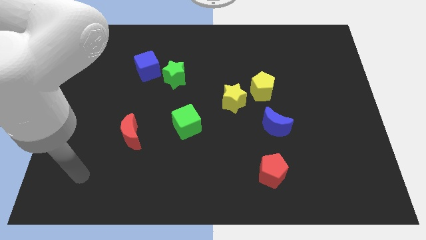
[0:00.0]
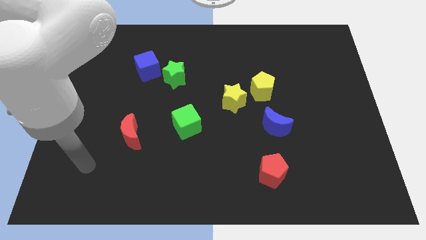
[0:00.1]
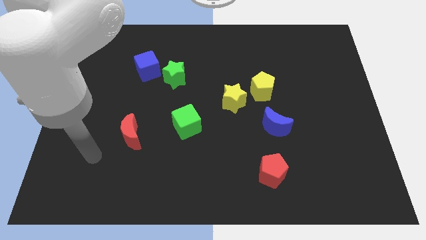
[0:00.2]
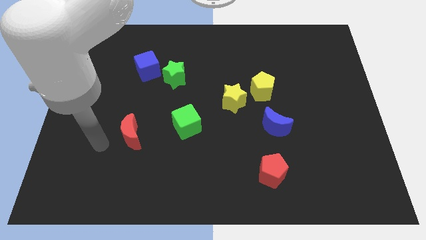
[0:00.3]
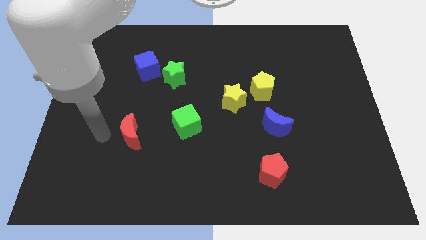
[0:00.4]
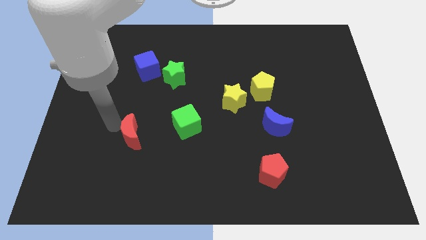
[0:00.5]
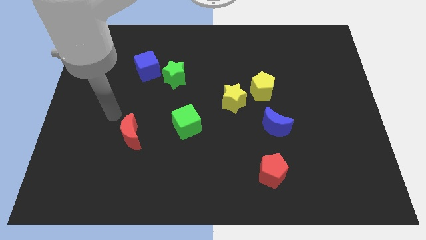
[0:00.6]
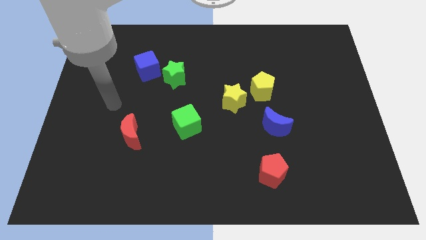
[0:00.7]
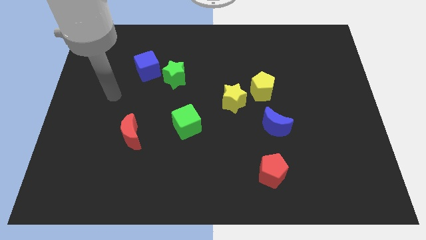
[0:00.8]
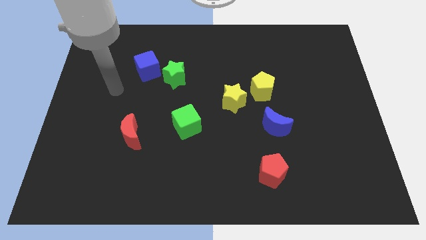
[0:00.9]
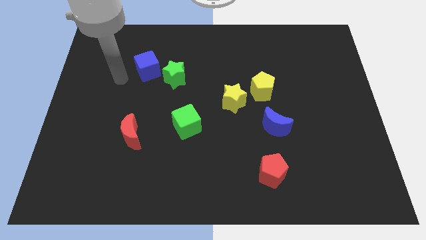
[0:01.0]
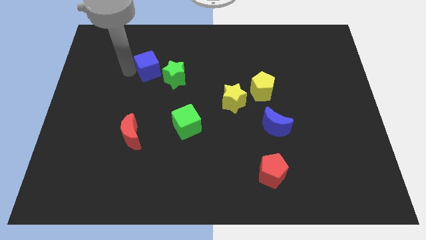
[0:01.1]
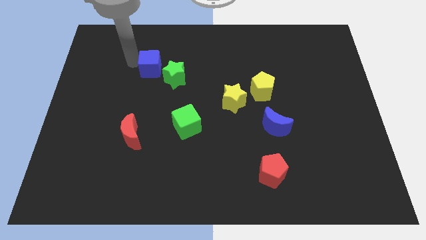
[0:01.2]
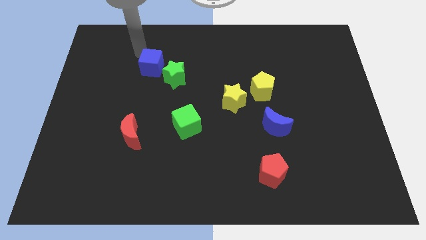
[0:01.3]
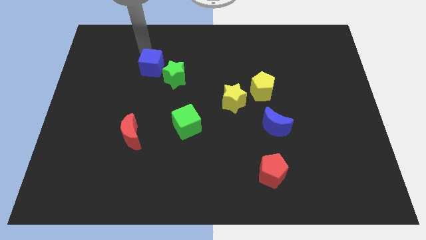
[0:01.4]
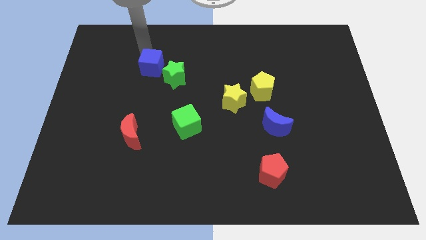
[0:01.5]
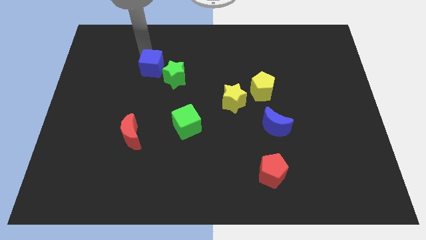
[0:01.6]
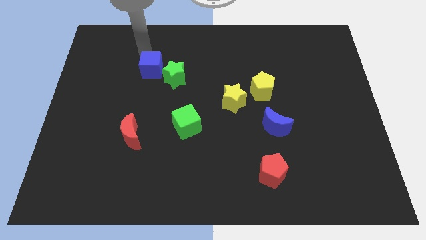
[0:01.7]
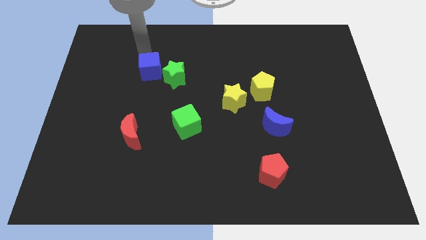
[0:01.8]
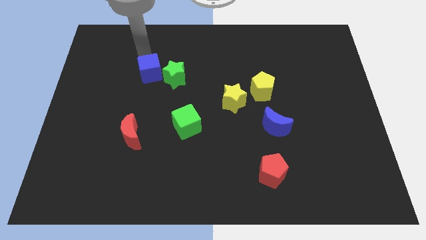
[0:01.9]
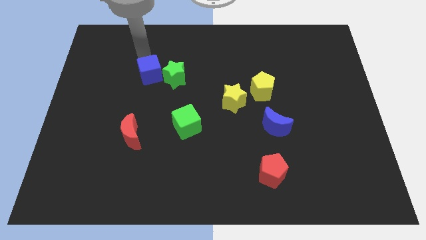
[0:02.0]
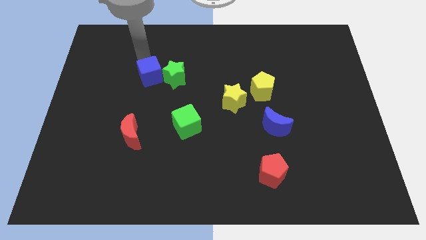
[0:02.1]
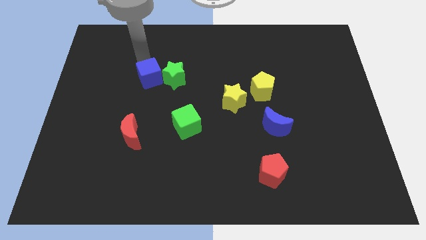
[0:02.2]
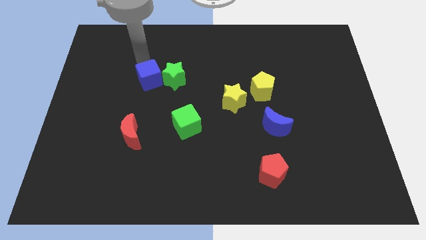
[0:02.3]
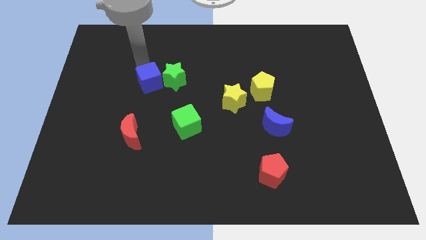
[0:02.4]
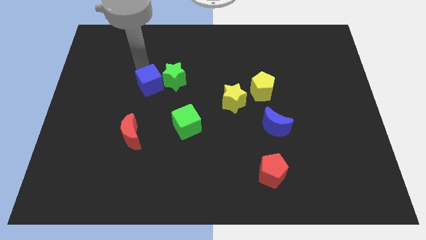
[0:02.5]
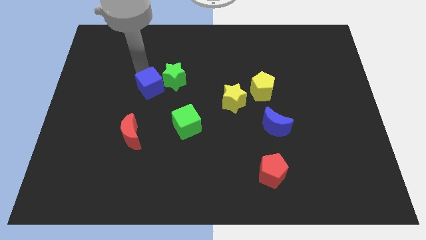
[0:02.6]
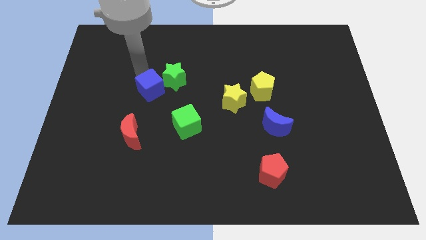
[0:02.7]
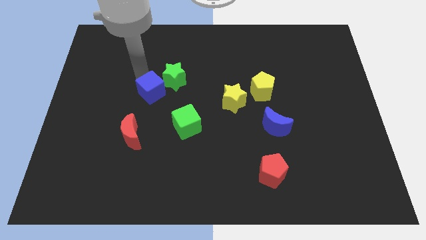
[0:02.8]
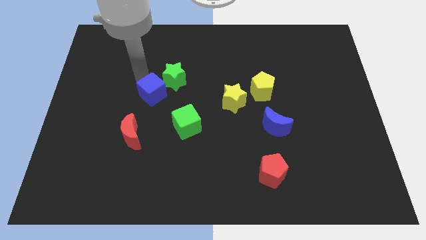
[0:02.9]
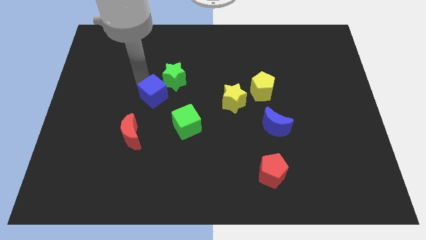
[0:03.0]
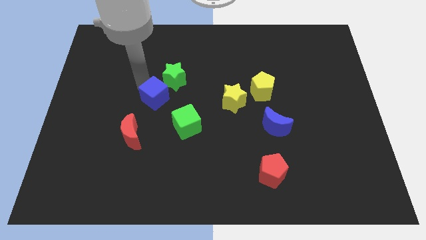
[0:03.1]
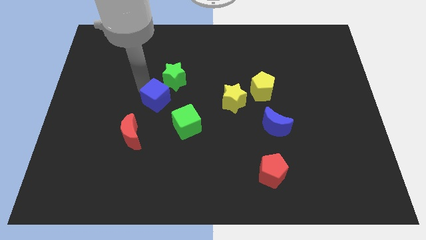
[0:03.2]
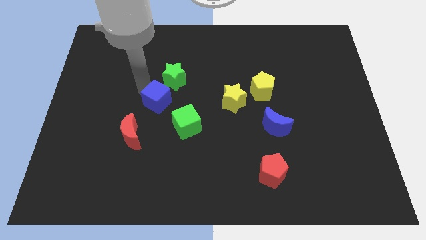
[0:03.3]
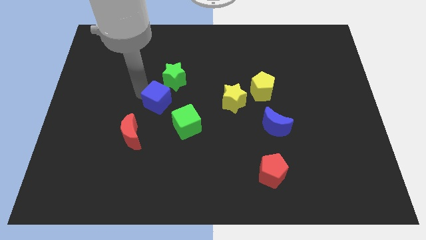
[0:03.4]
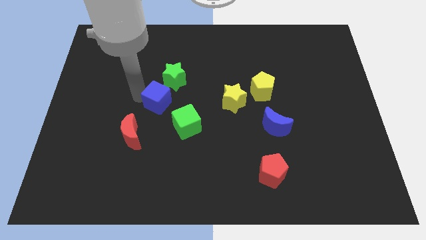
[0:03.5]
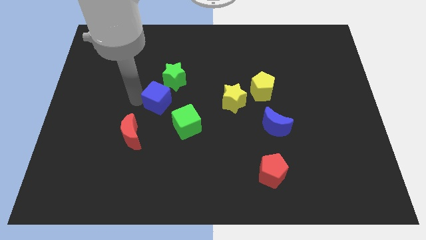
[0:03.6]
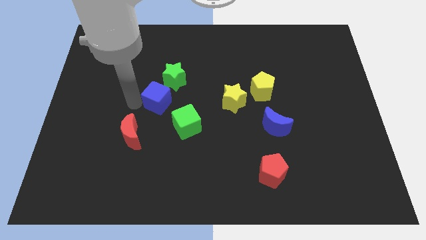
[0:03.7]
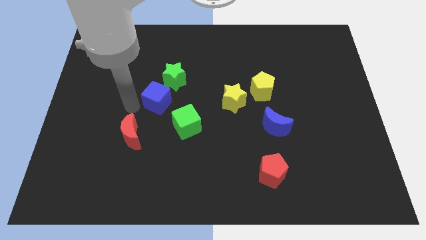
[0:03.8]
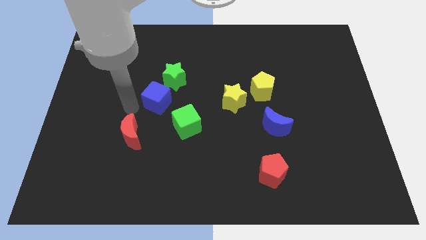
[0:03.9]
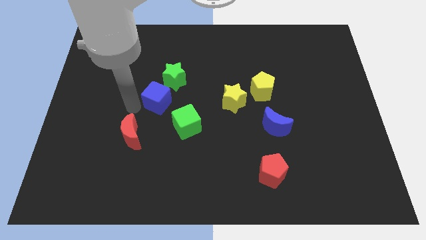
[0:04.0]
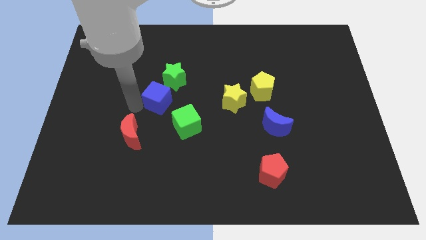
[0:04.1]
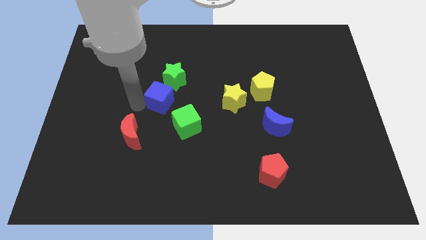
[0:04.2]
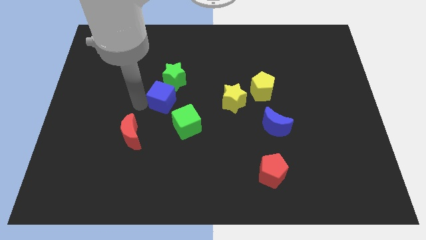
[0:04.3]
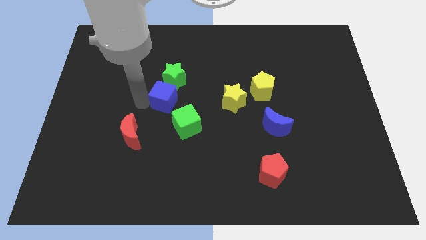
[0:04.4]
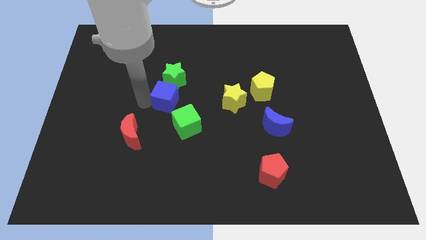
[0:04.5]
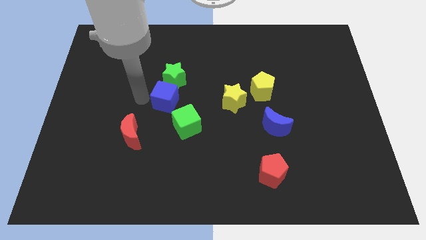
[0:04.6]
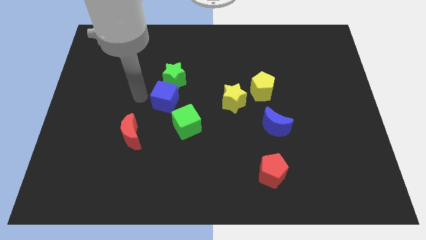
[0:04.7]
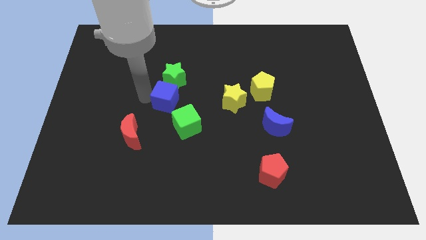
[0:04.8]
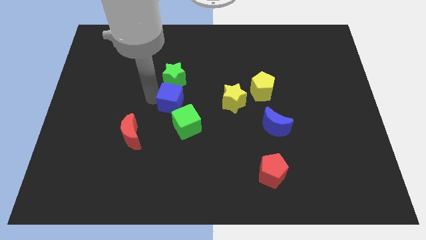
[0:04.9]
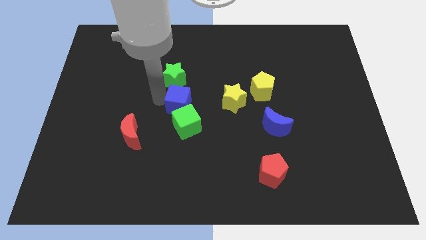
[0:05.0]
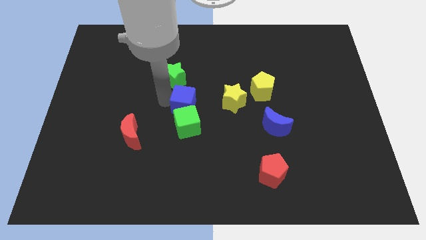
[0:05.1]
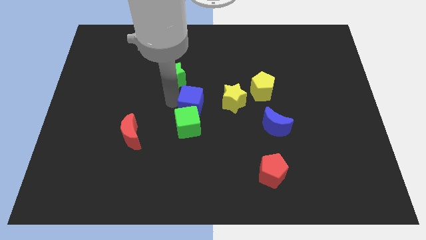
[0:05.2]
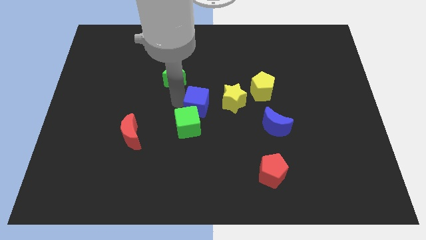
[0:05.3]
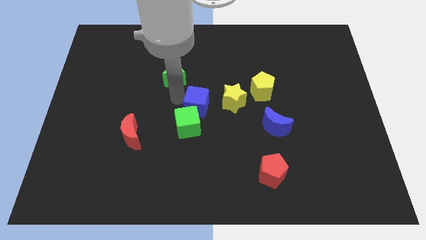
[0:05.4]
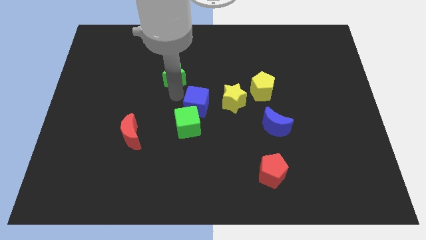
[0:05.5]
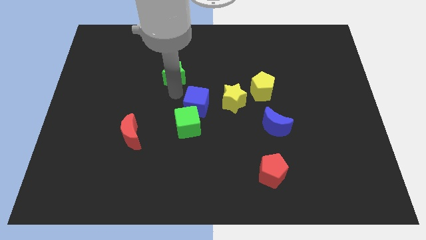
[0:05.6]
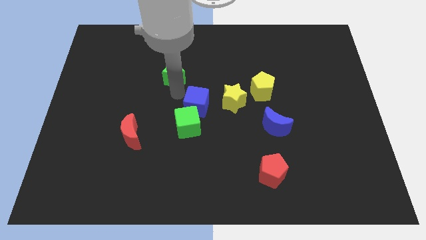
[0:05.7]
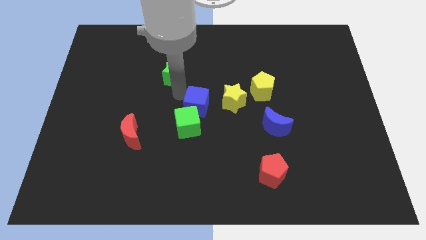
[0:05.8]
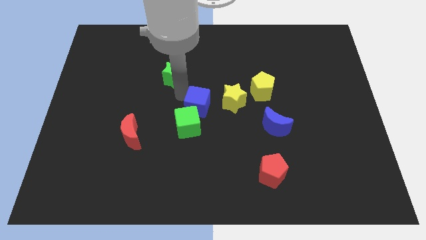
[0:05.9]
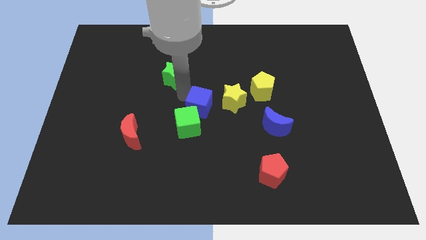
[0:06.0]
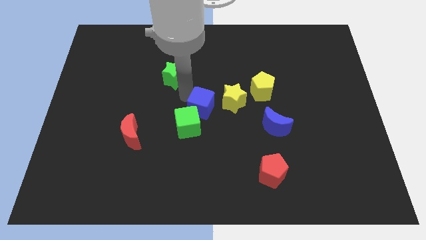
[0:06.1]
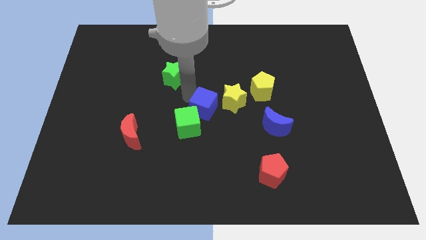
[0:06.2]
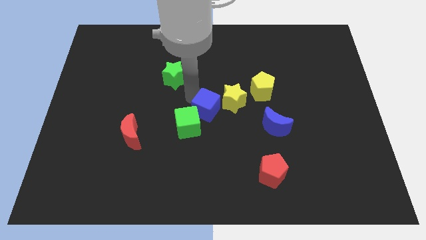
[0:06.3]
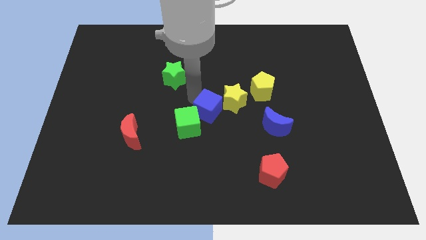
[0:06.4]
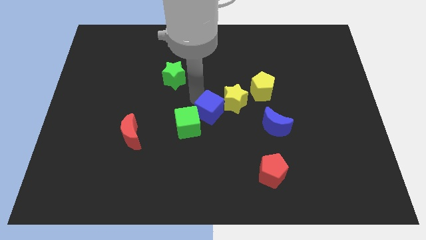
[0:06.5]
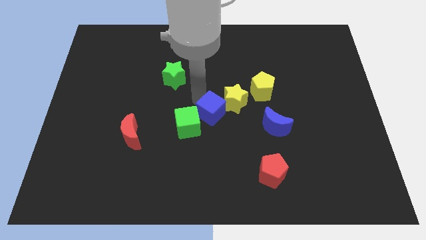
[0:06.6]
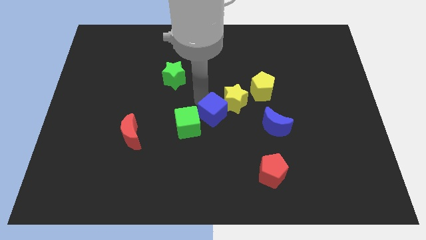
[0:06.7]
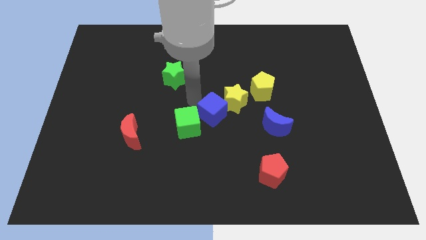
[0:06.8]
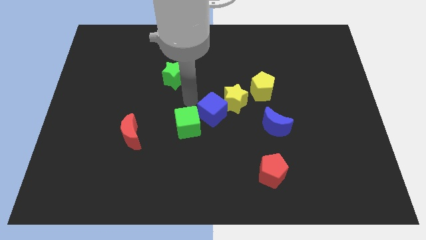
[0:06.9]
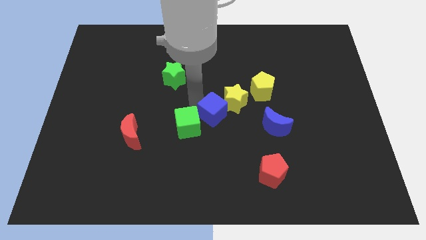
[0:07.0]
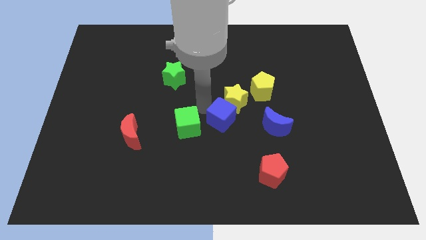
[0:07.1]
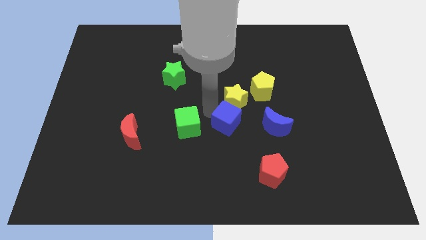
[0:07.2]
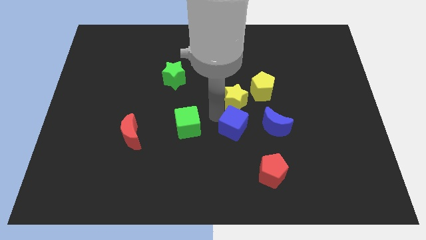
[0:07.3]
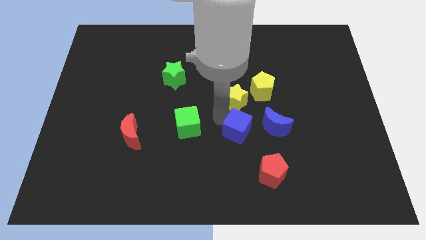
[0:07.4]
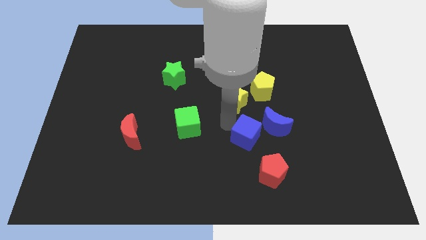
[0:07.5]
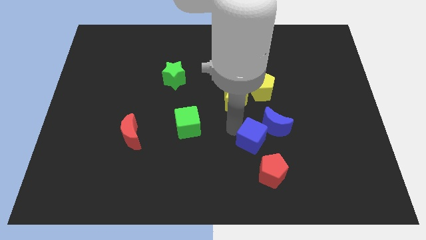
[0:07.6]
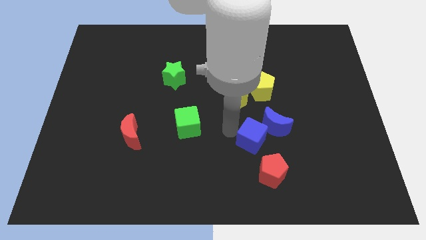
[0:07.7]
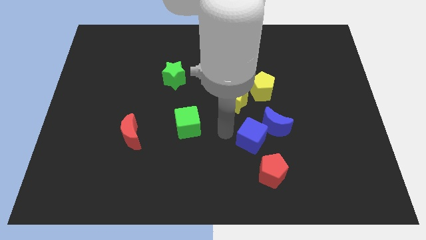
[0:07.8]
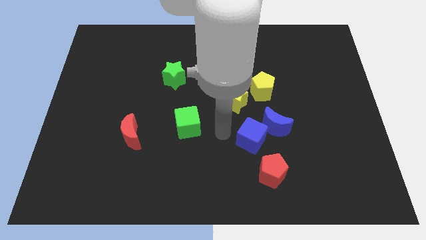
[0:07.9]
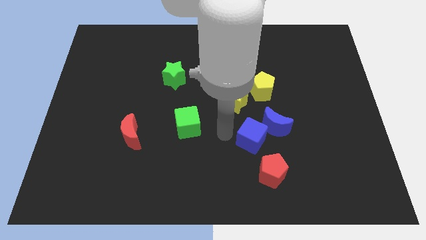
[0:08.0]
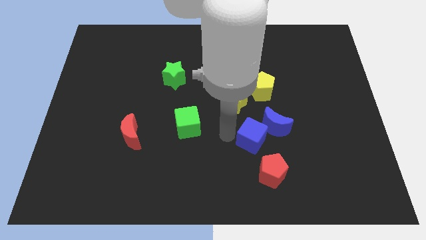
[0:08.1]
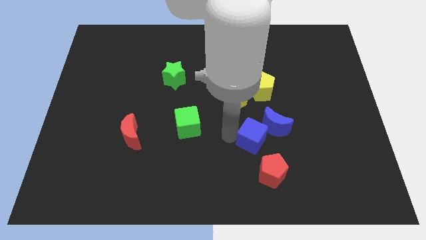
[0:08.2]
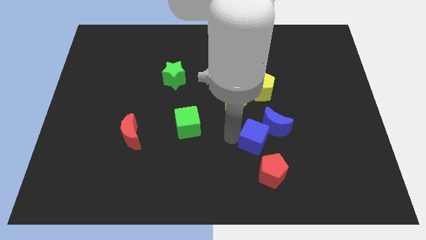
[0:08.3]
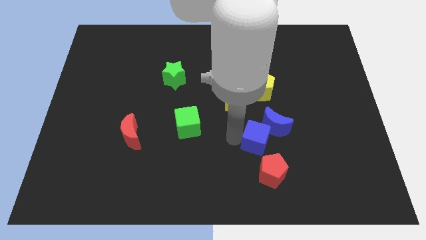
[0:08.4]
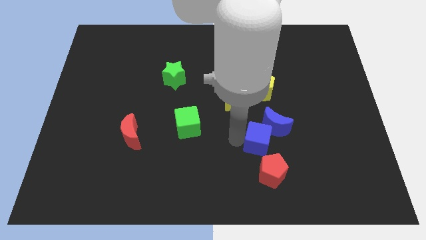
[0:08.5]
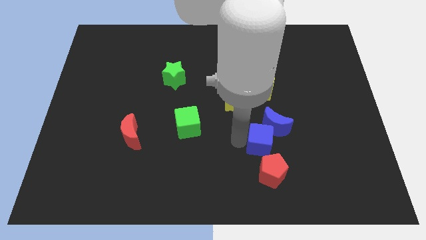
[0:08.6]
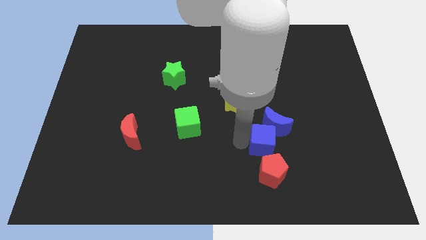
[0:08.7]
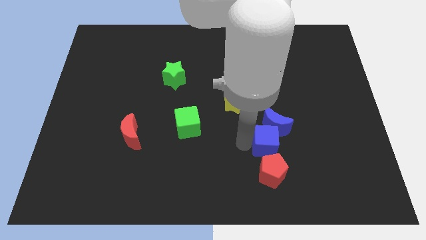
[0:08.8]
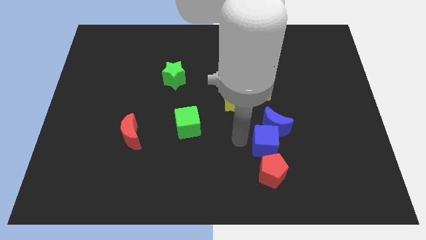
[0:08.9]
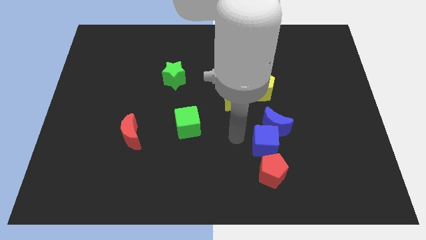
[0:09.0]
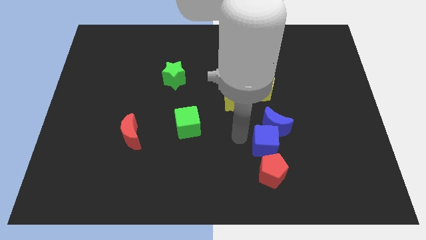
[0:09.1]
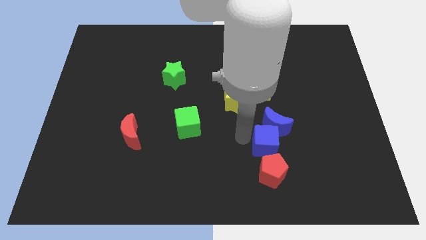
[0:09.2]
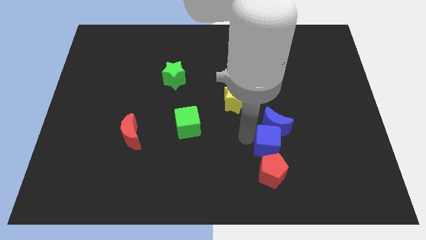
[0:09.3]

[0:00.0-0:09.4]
slide the blue cube to the top right side of the red pentagon
